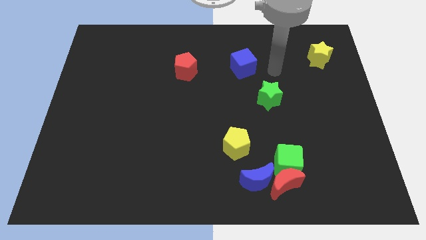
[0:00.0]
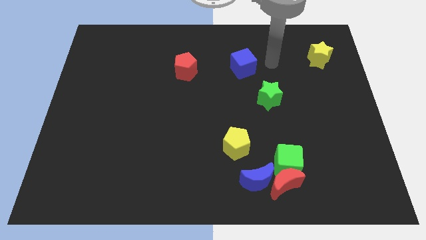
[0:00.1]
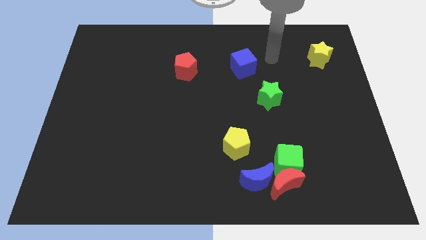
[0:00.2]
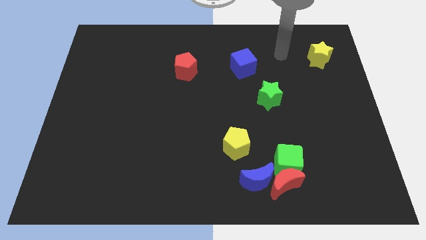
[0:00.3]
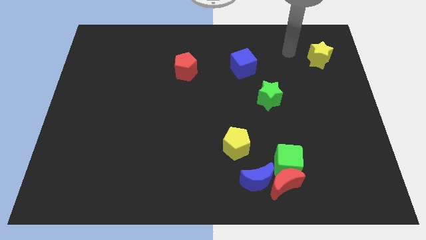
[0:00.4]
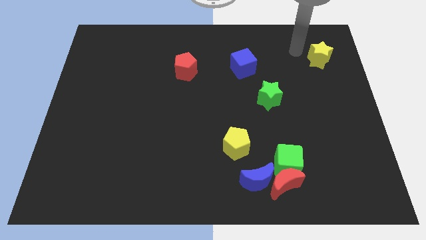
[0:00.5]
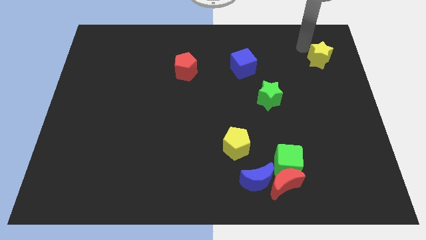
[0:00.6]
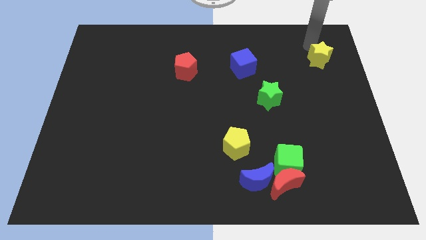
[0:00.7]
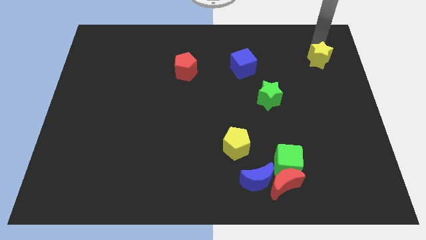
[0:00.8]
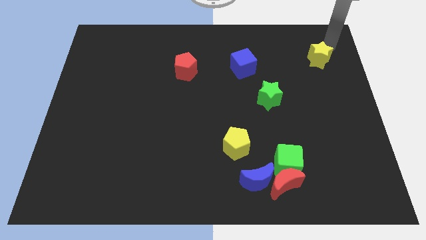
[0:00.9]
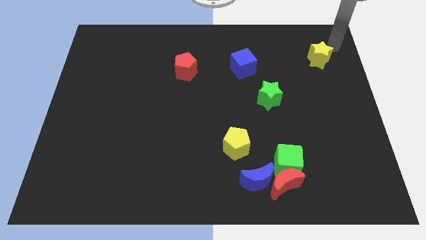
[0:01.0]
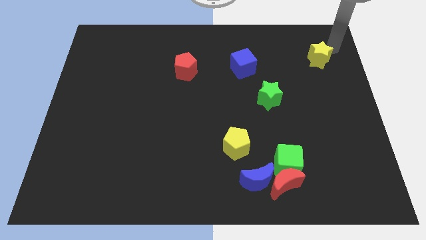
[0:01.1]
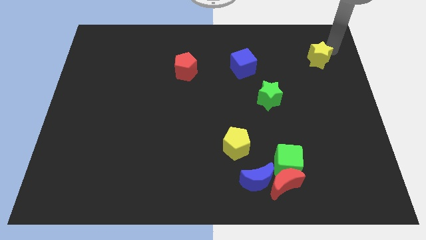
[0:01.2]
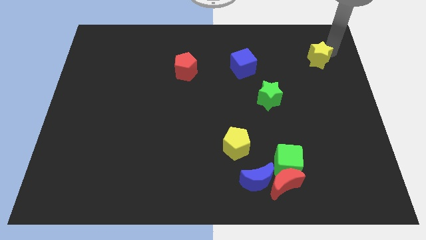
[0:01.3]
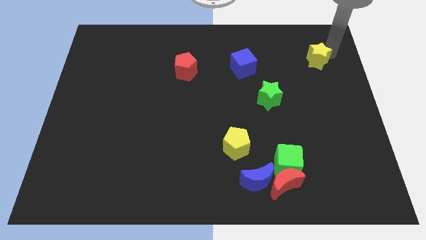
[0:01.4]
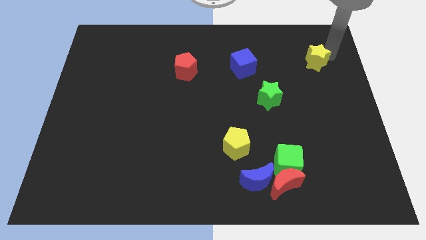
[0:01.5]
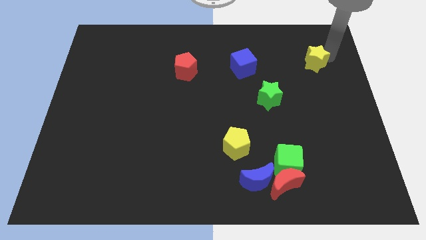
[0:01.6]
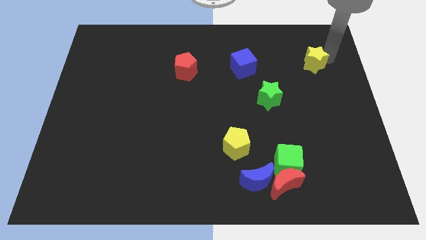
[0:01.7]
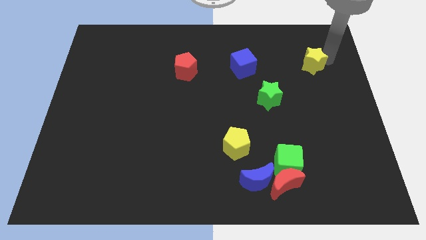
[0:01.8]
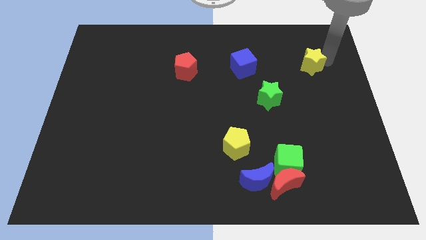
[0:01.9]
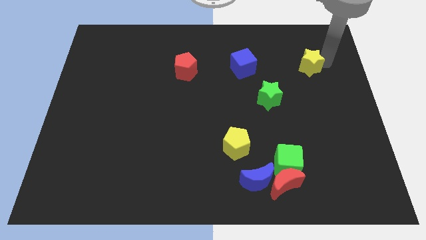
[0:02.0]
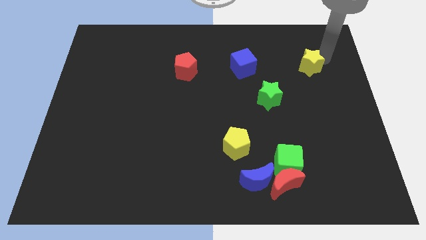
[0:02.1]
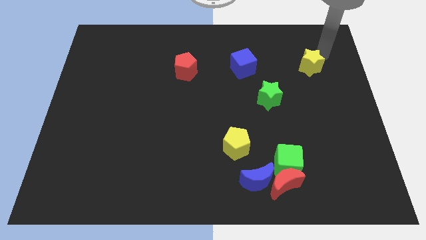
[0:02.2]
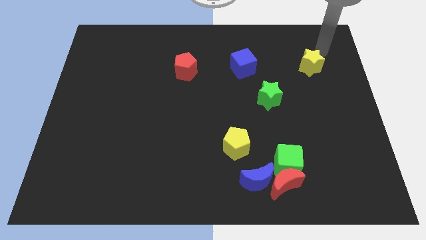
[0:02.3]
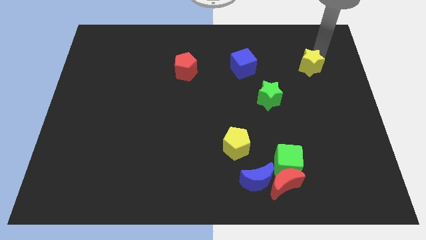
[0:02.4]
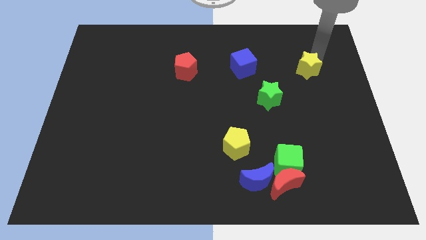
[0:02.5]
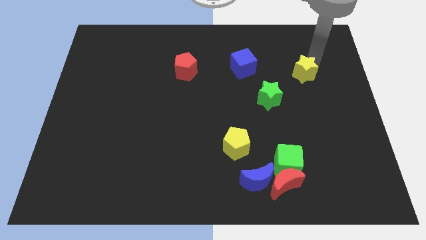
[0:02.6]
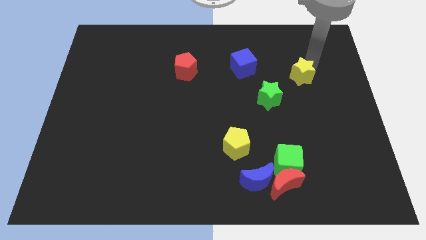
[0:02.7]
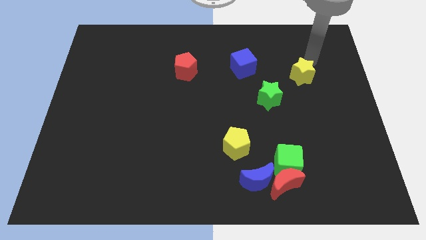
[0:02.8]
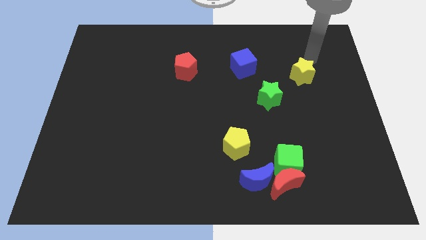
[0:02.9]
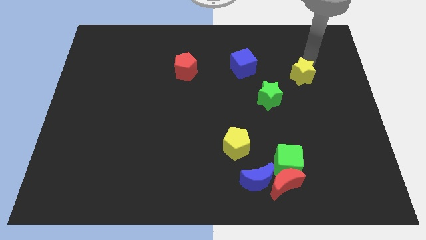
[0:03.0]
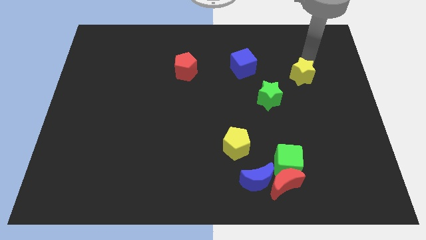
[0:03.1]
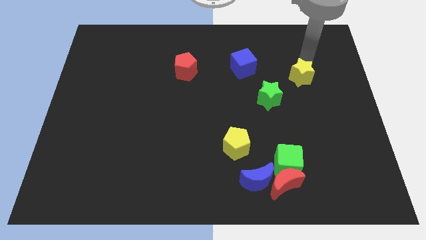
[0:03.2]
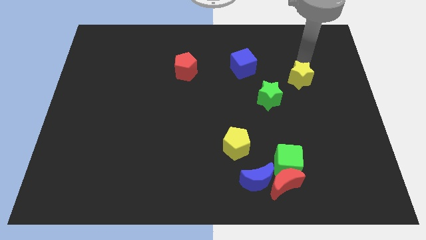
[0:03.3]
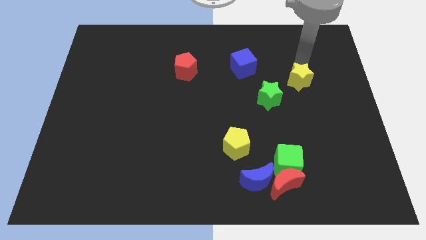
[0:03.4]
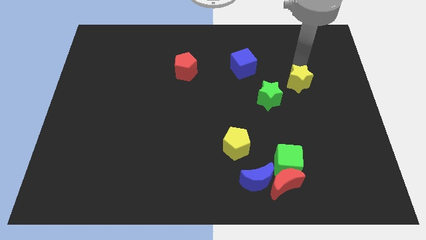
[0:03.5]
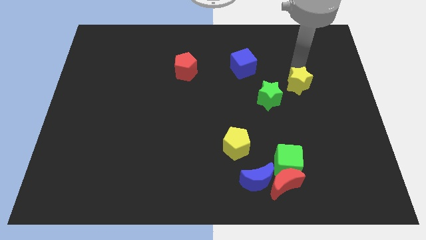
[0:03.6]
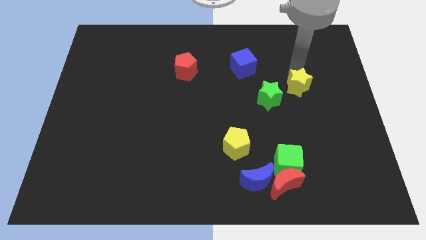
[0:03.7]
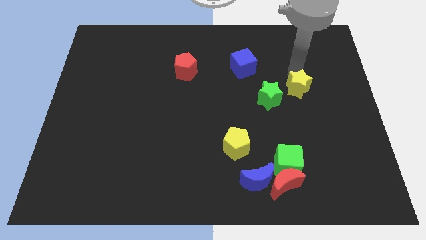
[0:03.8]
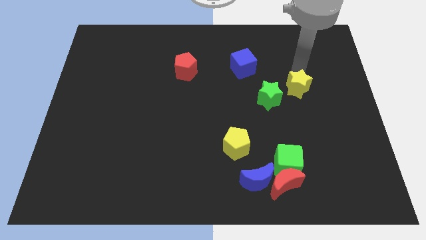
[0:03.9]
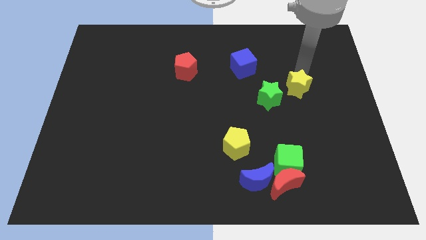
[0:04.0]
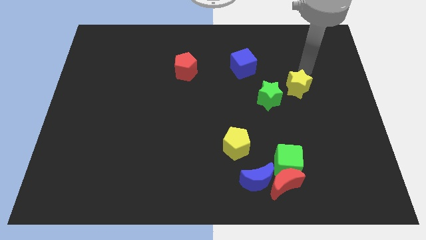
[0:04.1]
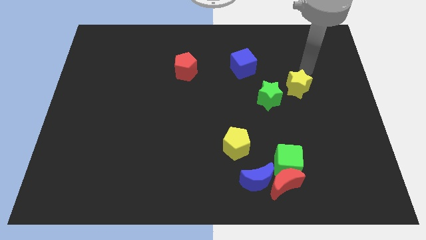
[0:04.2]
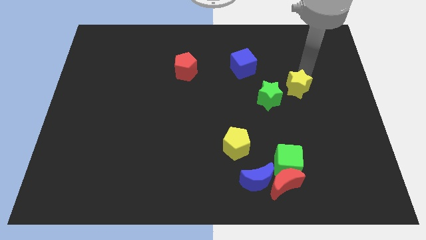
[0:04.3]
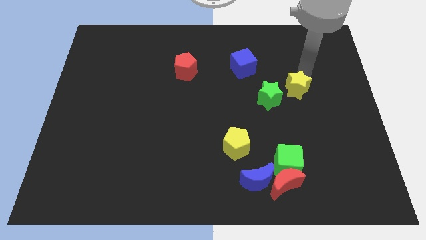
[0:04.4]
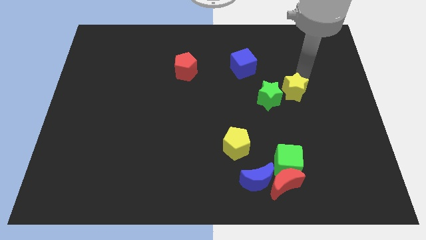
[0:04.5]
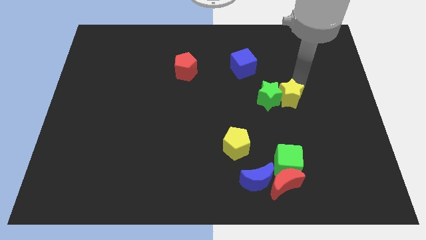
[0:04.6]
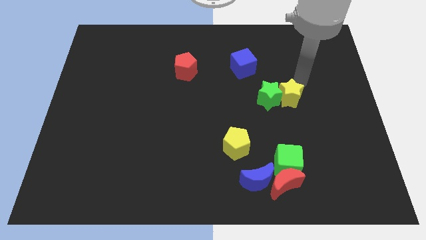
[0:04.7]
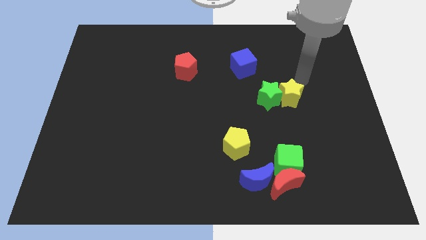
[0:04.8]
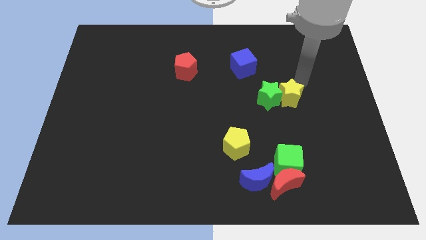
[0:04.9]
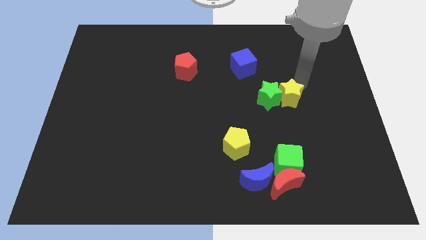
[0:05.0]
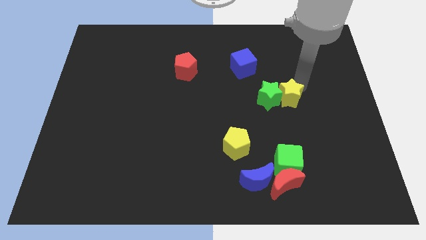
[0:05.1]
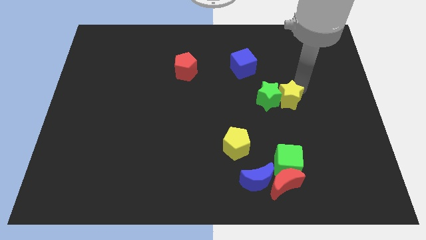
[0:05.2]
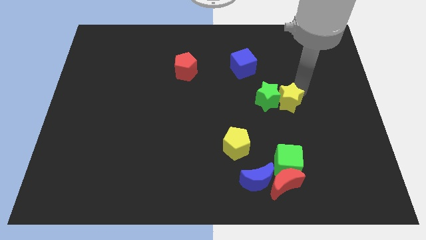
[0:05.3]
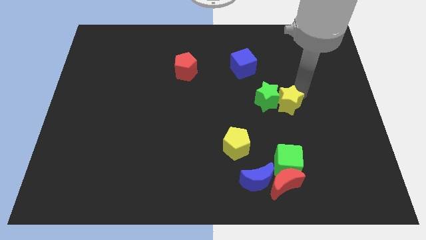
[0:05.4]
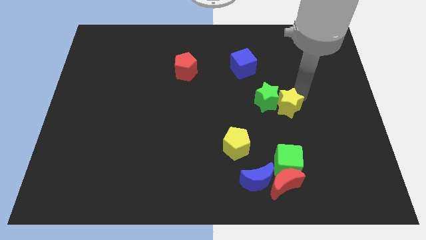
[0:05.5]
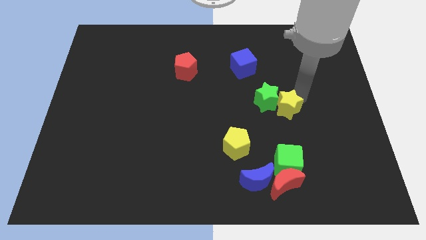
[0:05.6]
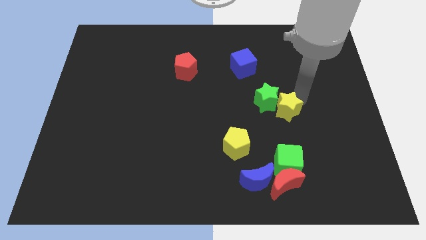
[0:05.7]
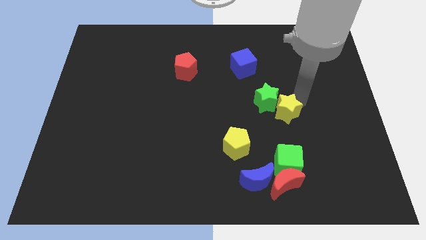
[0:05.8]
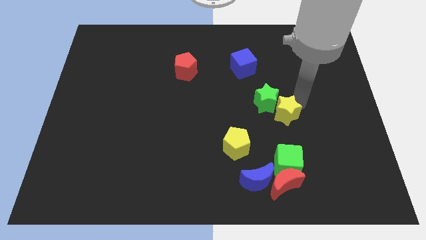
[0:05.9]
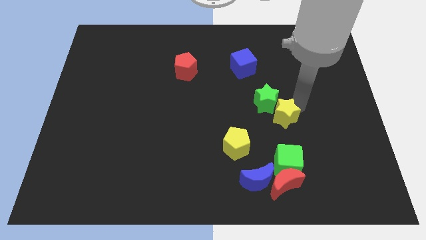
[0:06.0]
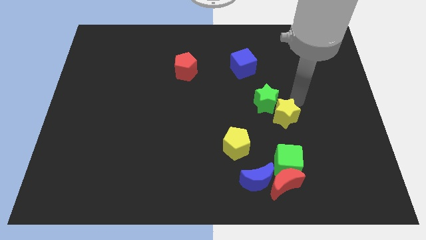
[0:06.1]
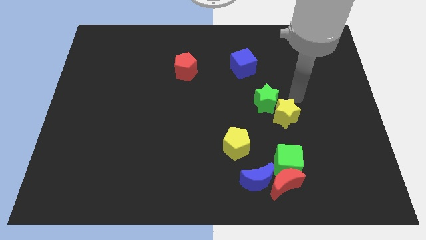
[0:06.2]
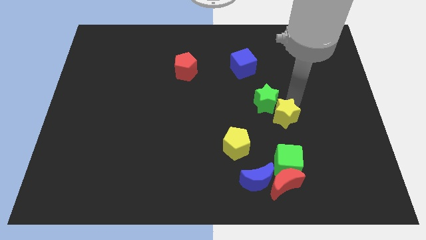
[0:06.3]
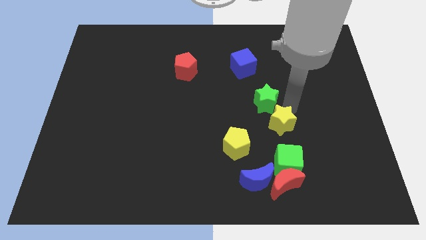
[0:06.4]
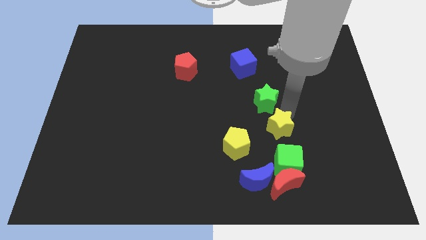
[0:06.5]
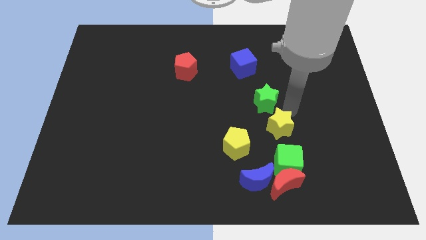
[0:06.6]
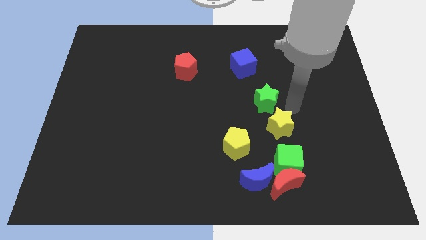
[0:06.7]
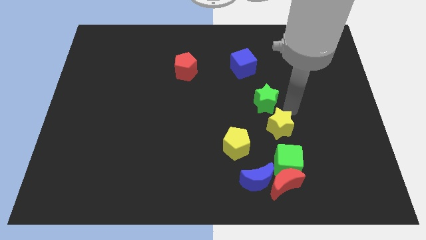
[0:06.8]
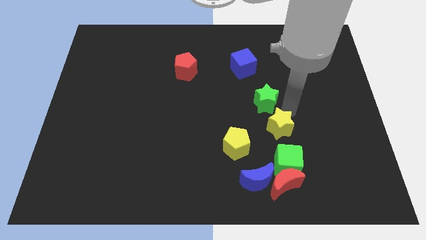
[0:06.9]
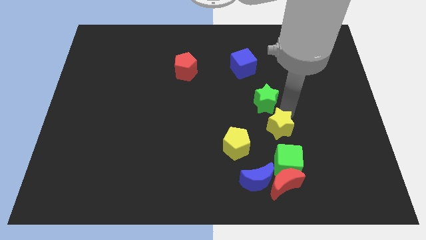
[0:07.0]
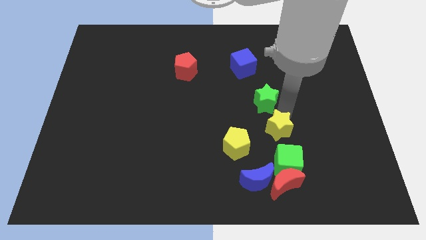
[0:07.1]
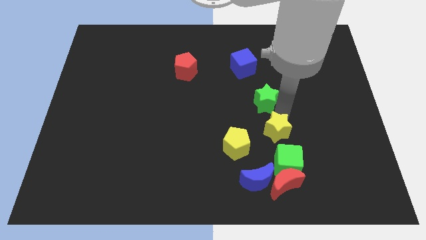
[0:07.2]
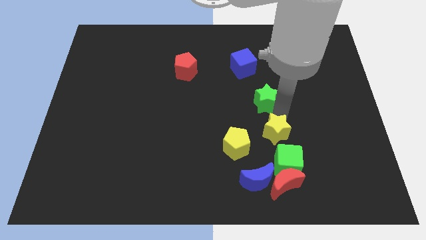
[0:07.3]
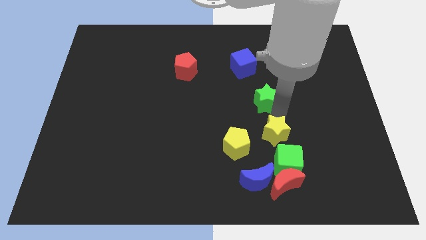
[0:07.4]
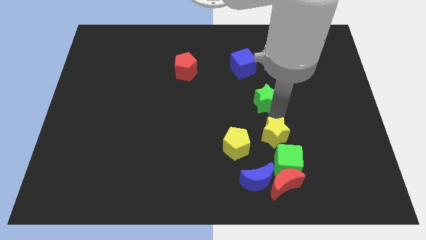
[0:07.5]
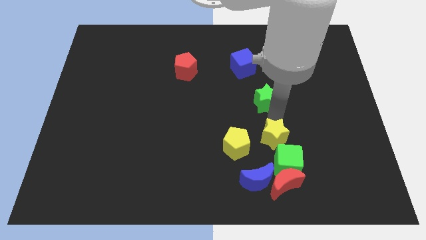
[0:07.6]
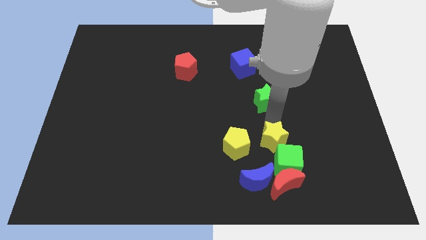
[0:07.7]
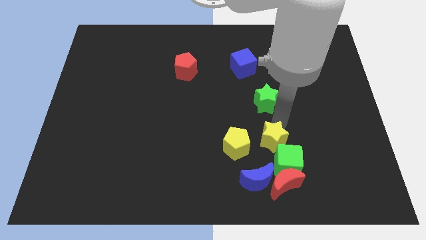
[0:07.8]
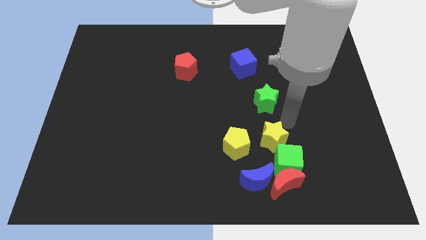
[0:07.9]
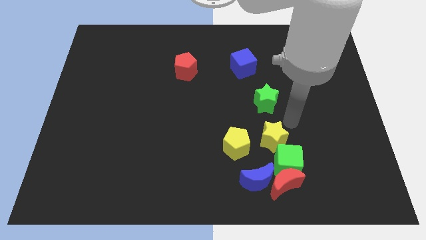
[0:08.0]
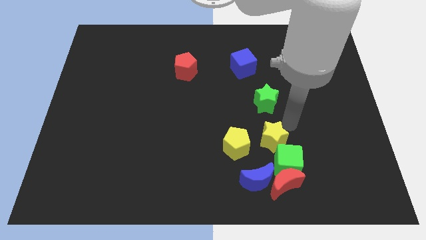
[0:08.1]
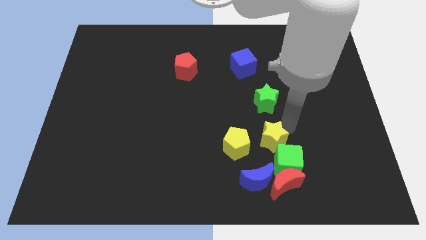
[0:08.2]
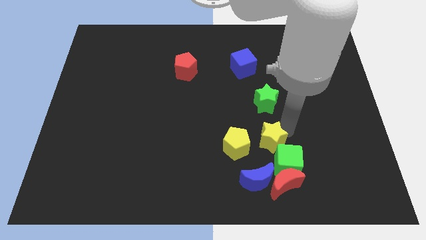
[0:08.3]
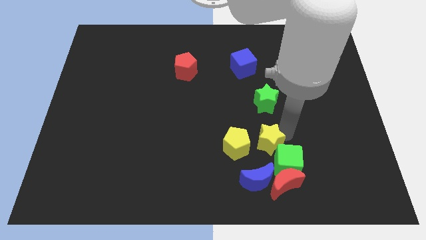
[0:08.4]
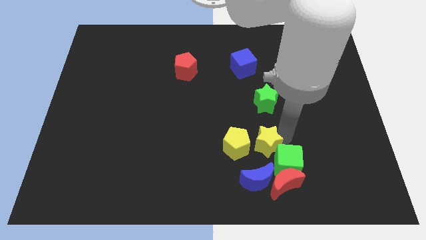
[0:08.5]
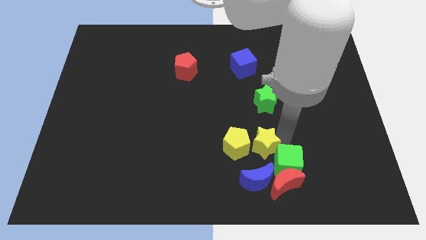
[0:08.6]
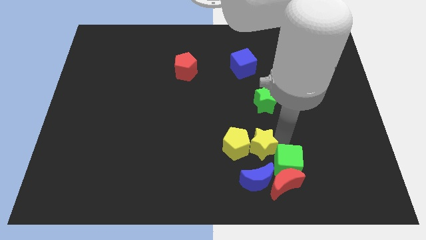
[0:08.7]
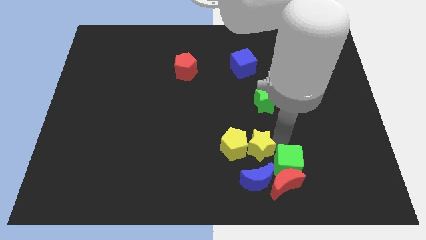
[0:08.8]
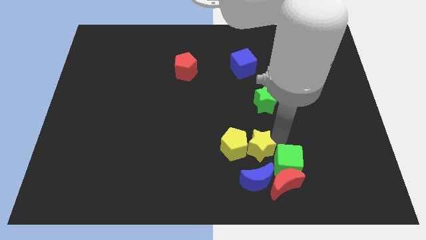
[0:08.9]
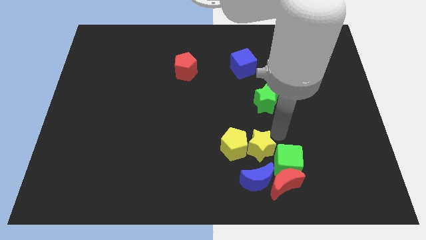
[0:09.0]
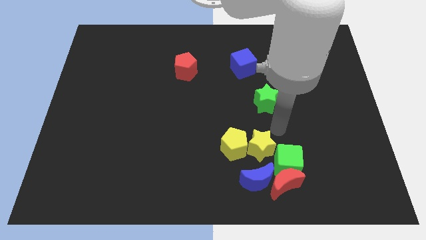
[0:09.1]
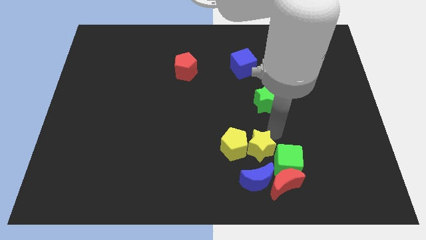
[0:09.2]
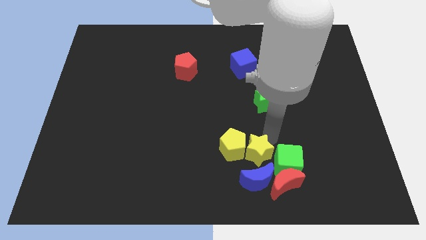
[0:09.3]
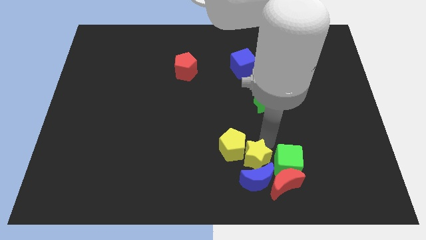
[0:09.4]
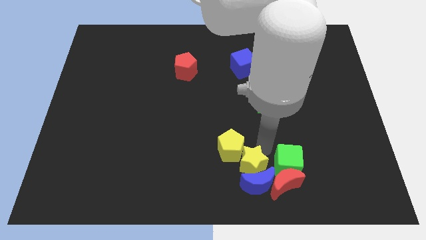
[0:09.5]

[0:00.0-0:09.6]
put the yellow star to the bottom side
